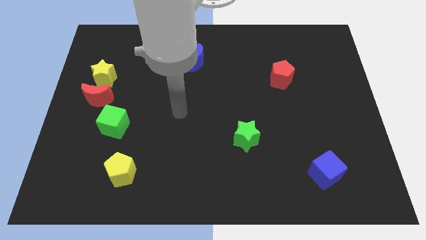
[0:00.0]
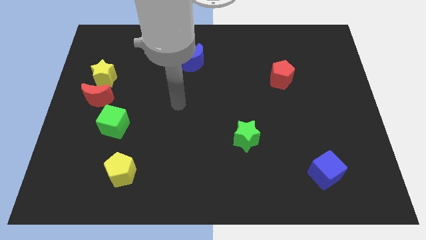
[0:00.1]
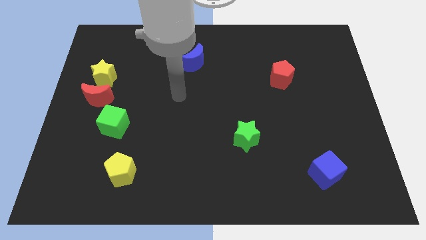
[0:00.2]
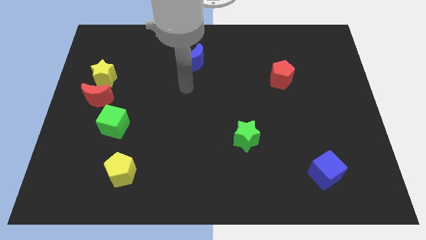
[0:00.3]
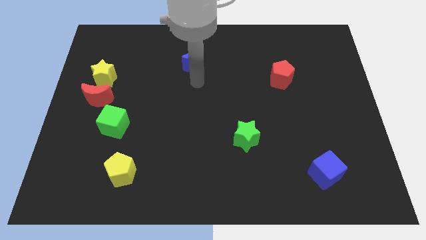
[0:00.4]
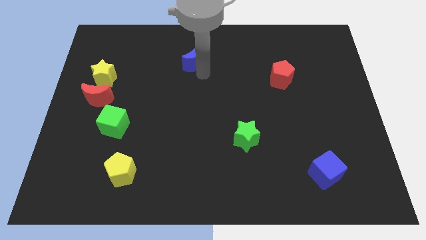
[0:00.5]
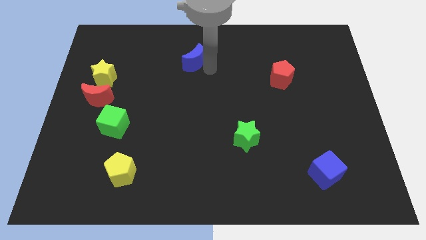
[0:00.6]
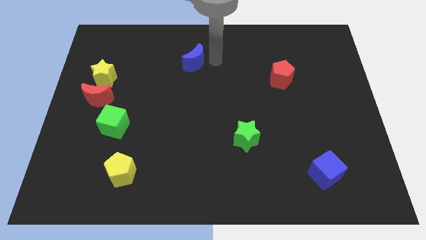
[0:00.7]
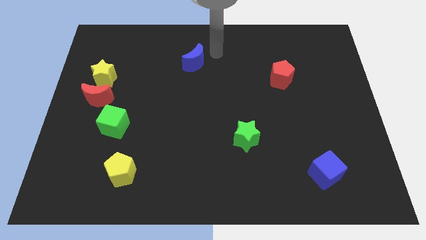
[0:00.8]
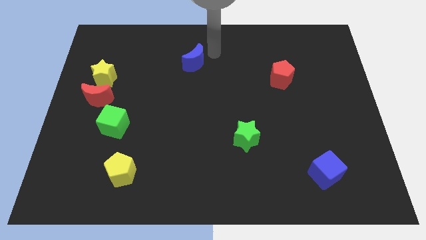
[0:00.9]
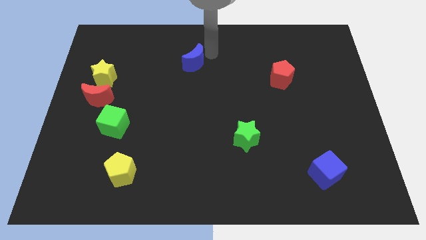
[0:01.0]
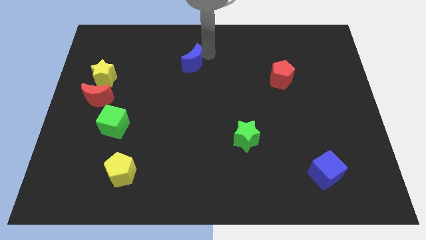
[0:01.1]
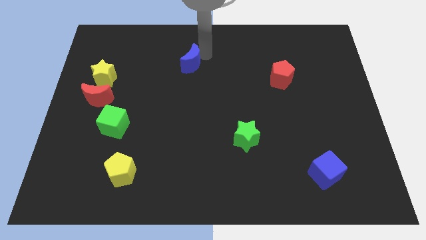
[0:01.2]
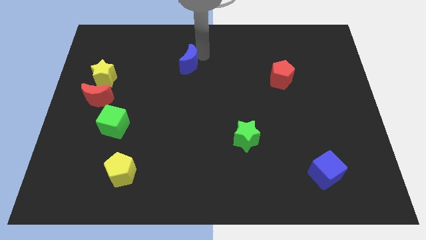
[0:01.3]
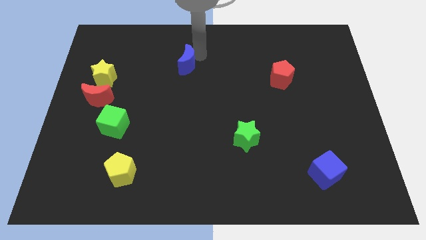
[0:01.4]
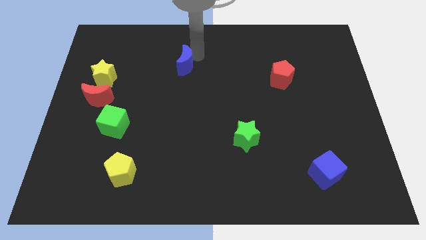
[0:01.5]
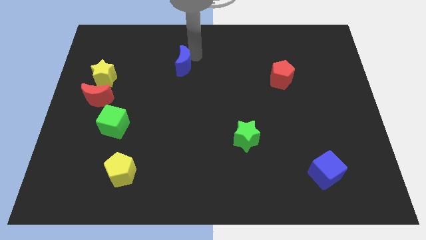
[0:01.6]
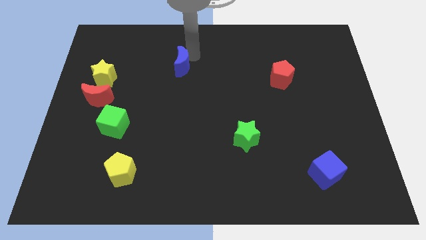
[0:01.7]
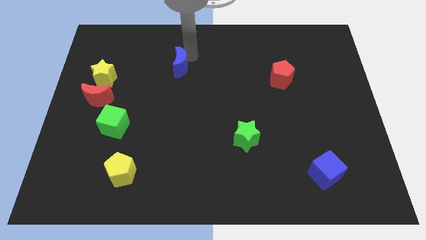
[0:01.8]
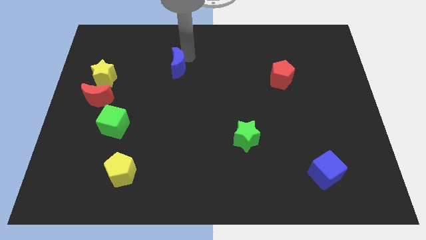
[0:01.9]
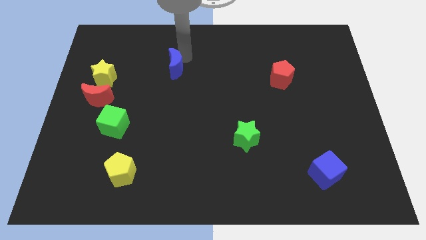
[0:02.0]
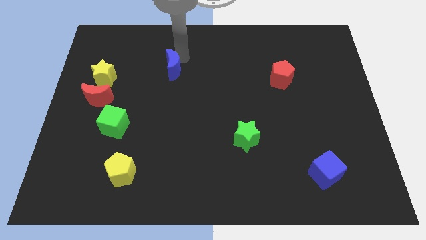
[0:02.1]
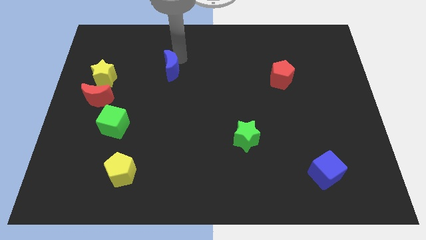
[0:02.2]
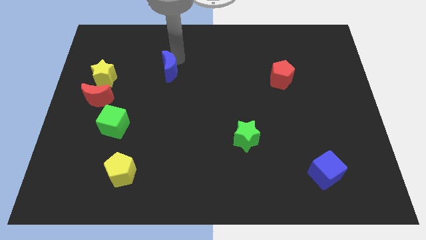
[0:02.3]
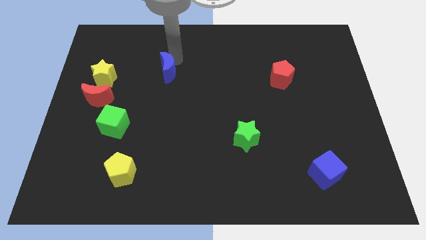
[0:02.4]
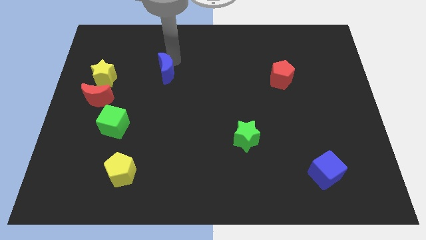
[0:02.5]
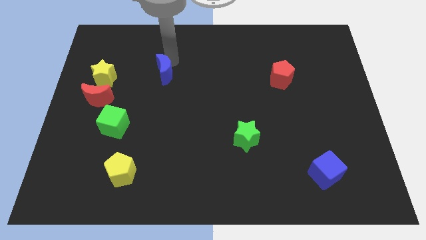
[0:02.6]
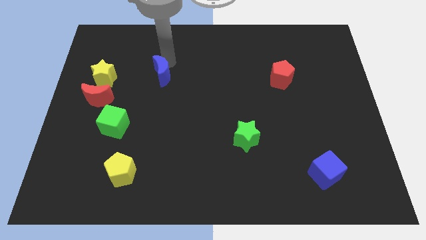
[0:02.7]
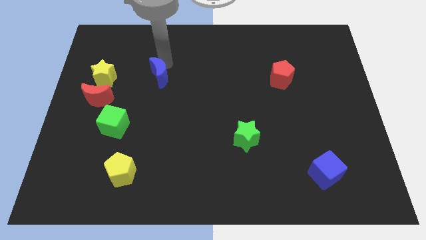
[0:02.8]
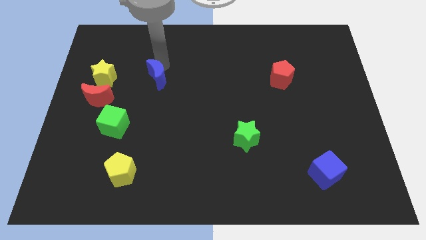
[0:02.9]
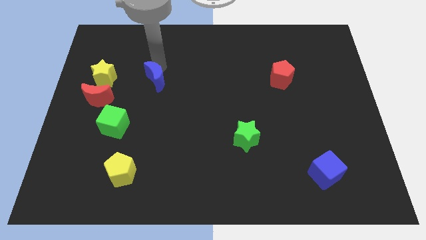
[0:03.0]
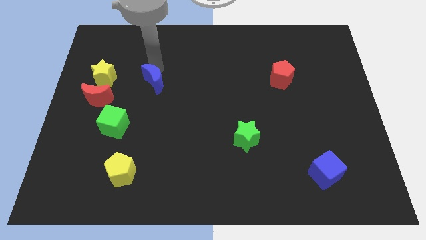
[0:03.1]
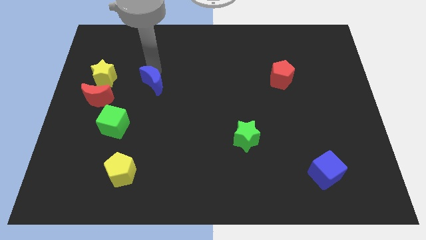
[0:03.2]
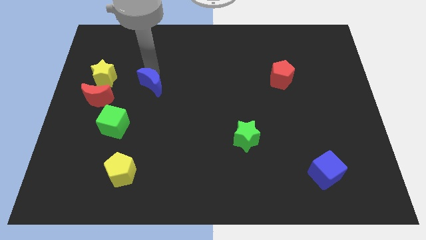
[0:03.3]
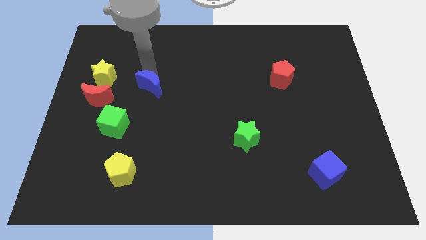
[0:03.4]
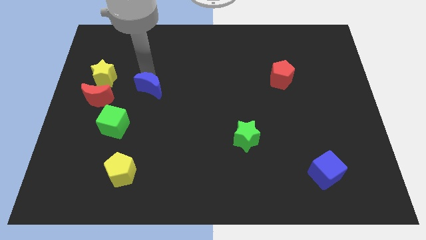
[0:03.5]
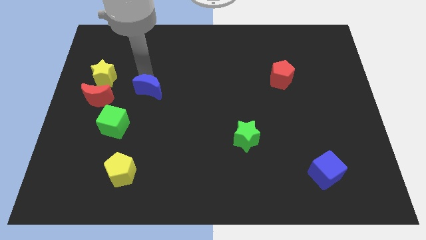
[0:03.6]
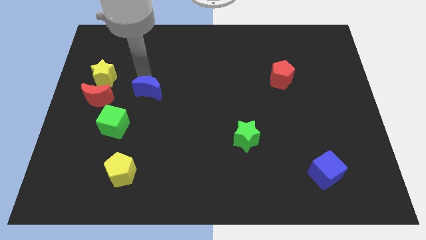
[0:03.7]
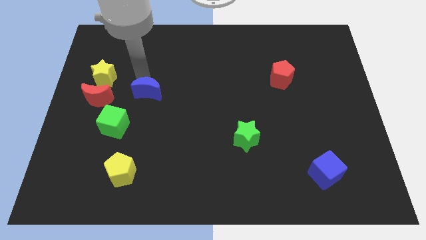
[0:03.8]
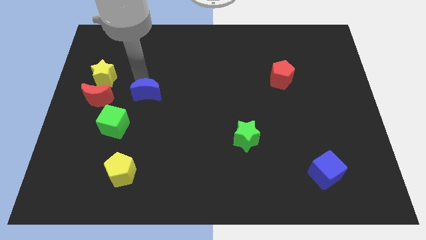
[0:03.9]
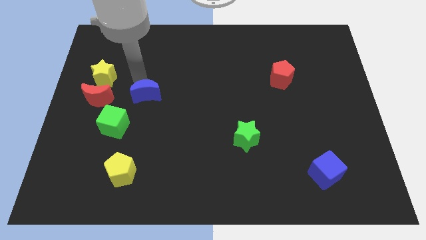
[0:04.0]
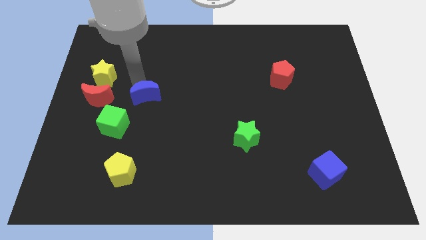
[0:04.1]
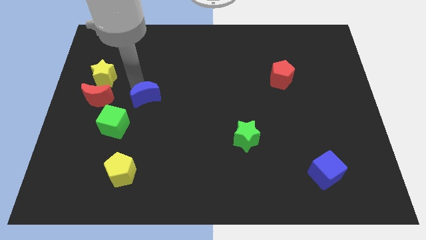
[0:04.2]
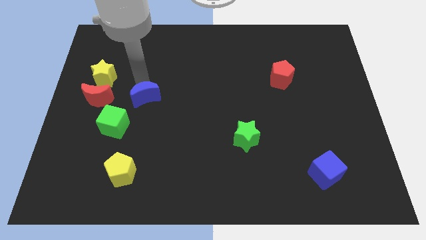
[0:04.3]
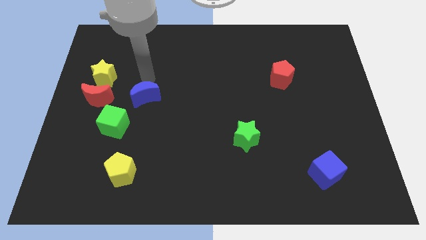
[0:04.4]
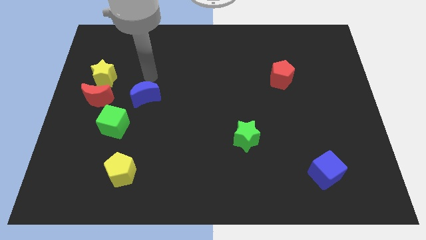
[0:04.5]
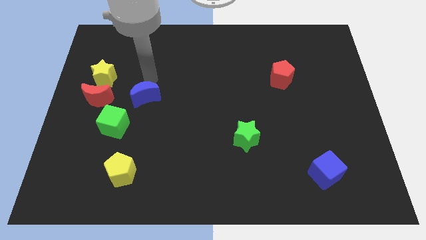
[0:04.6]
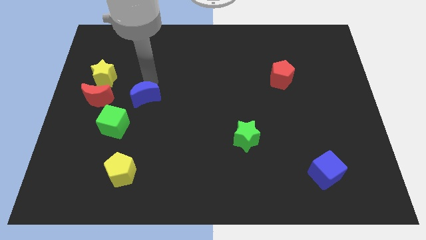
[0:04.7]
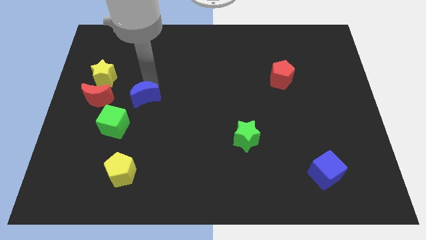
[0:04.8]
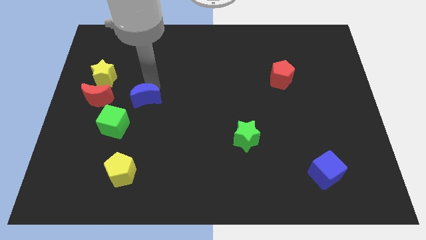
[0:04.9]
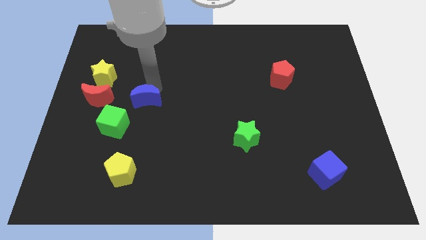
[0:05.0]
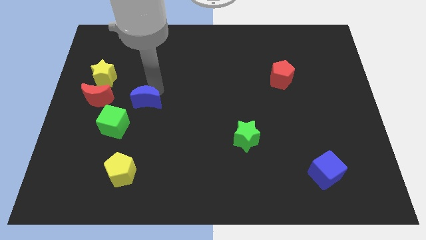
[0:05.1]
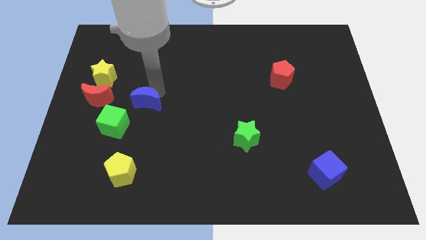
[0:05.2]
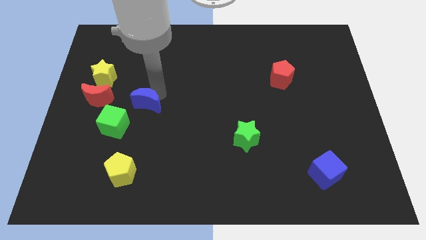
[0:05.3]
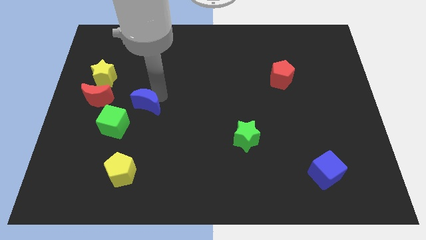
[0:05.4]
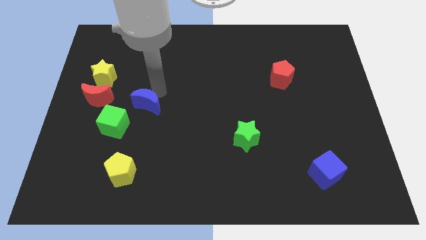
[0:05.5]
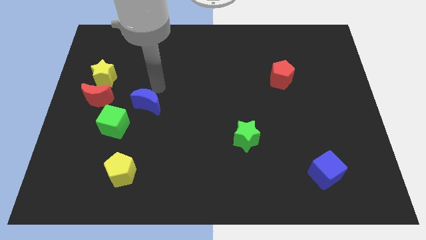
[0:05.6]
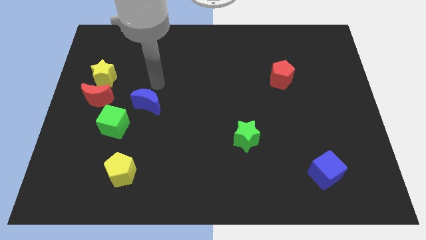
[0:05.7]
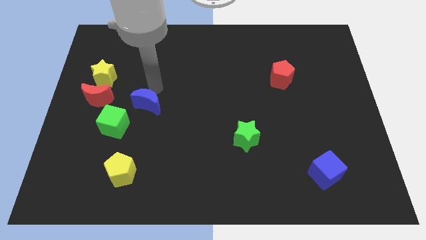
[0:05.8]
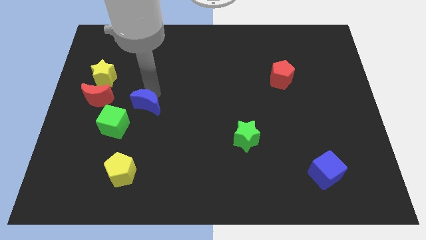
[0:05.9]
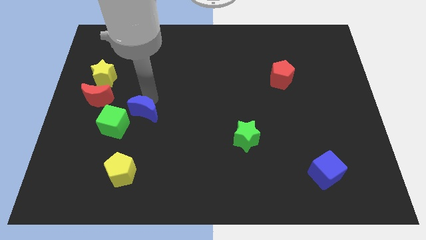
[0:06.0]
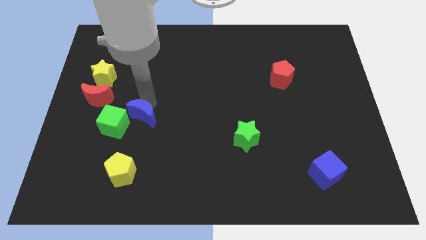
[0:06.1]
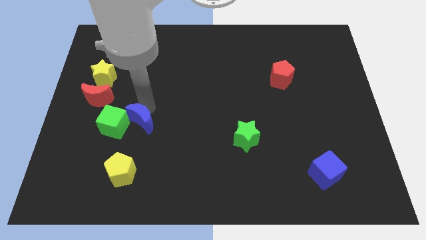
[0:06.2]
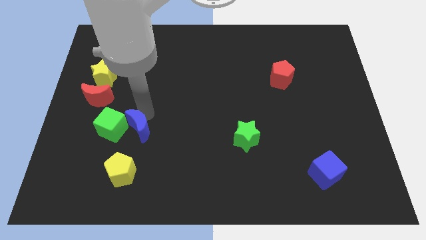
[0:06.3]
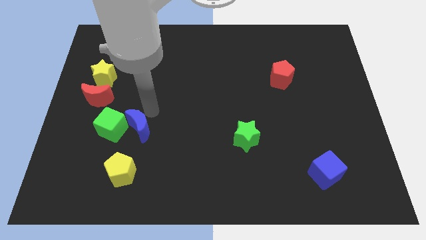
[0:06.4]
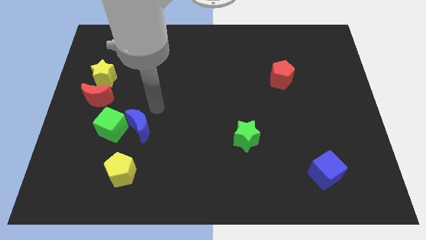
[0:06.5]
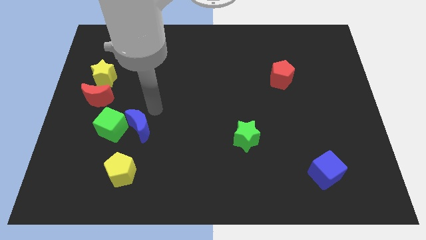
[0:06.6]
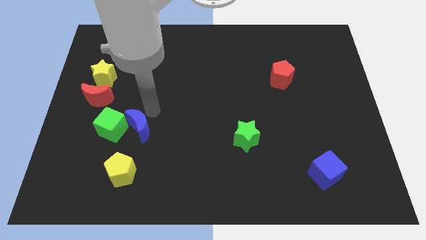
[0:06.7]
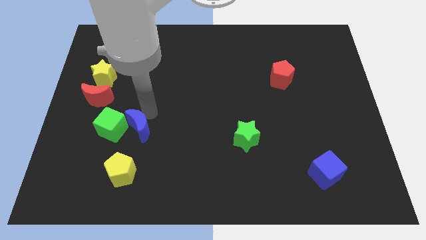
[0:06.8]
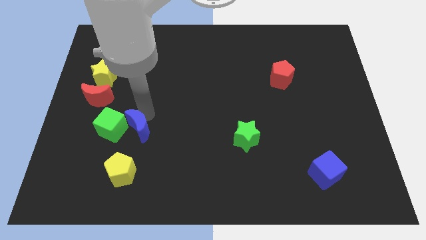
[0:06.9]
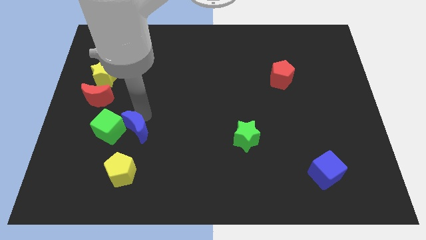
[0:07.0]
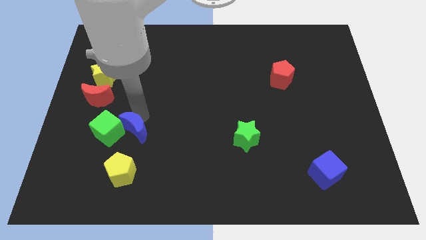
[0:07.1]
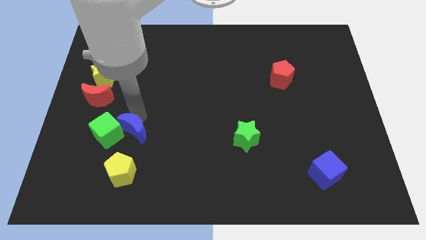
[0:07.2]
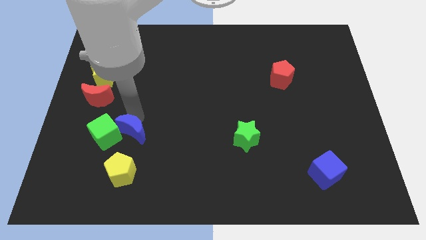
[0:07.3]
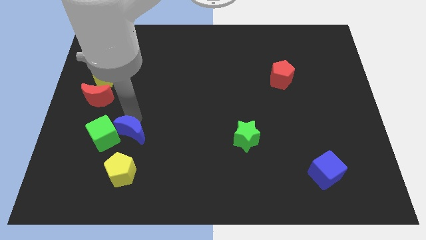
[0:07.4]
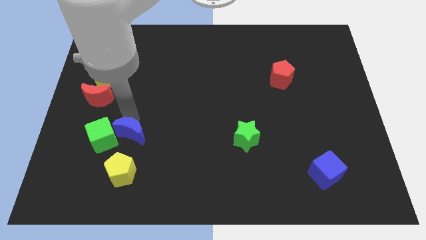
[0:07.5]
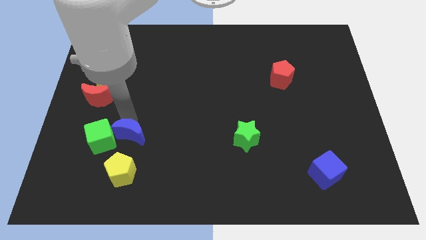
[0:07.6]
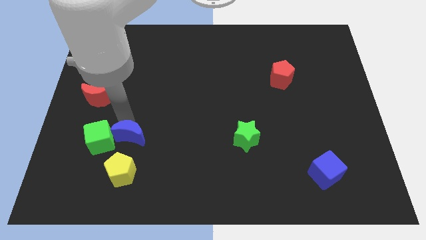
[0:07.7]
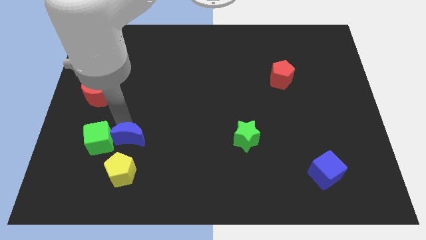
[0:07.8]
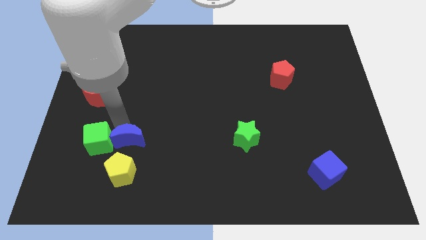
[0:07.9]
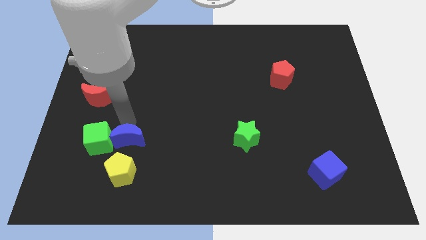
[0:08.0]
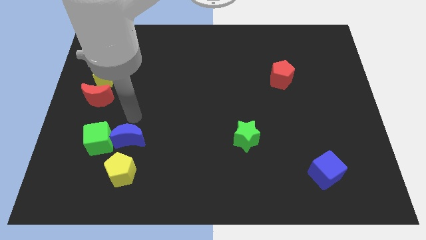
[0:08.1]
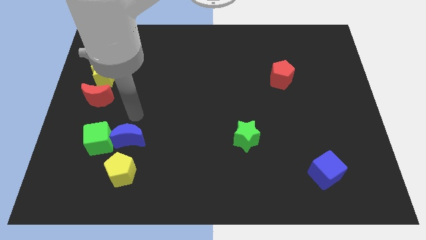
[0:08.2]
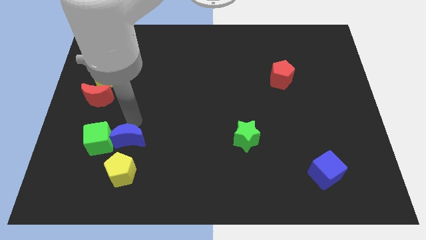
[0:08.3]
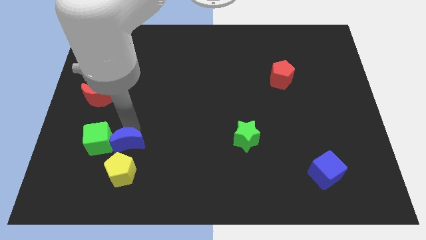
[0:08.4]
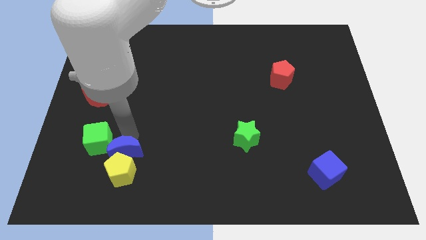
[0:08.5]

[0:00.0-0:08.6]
move the blue moon next to the yellow pentagon
